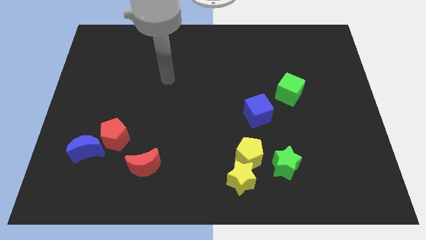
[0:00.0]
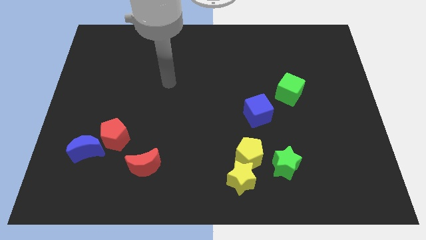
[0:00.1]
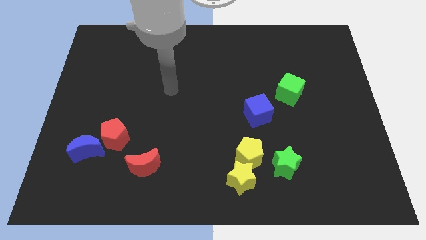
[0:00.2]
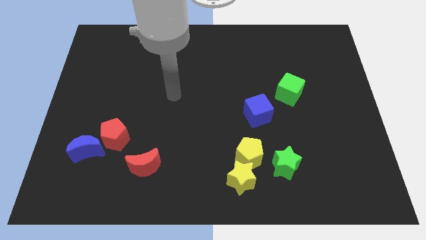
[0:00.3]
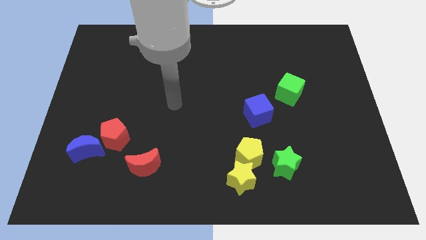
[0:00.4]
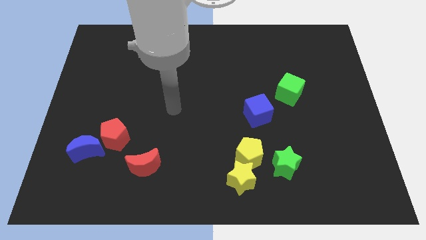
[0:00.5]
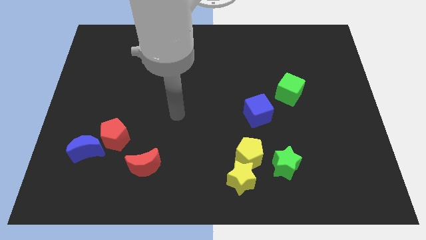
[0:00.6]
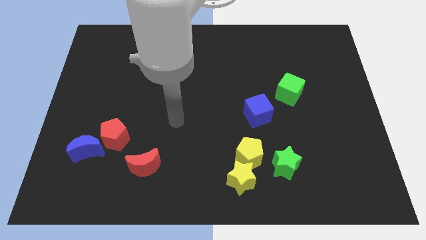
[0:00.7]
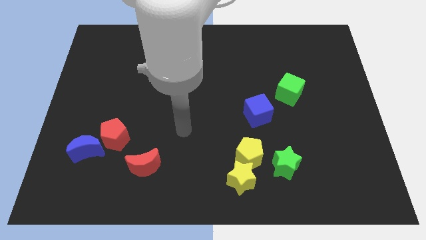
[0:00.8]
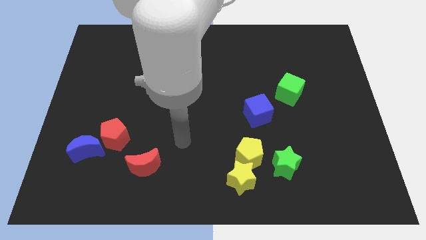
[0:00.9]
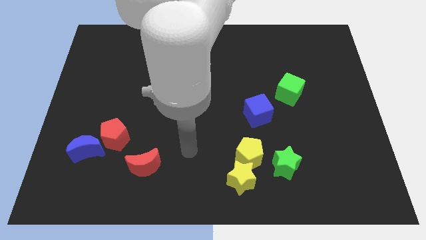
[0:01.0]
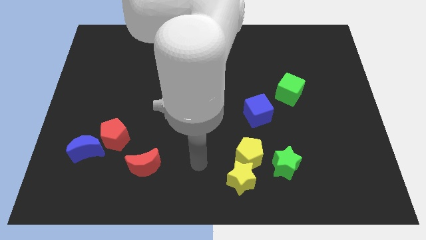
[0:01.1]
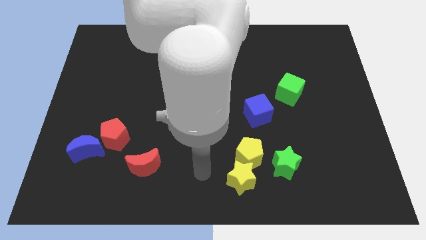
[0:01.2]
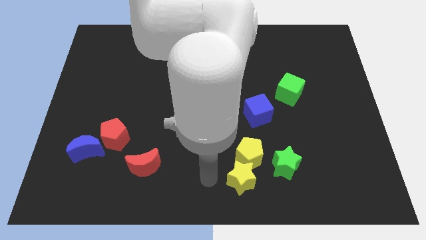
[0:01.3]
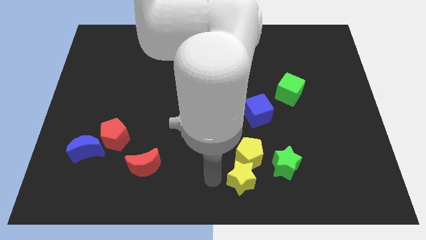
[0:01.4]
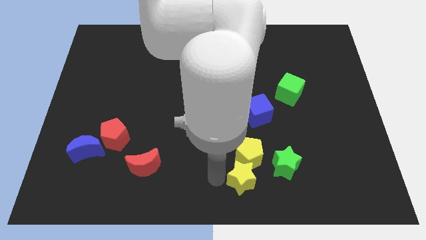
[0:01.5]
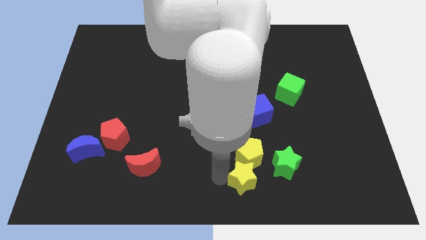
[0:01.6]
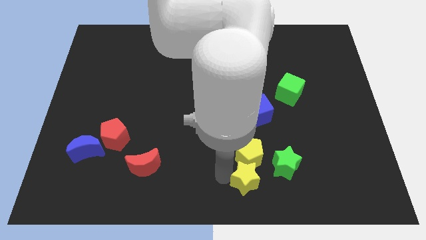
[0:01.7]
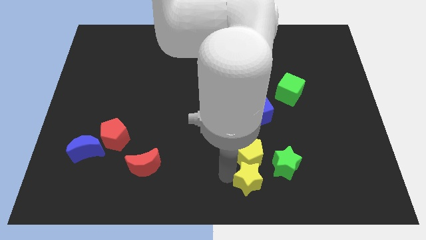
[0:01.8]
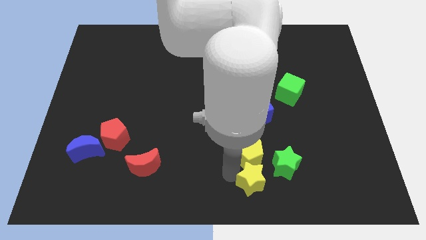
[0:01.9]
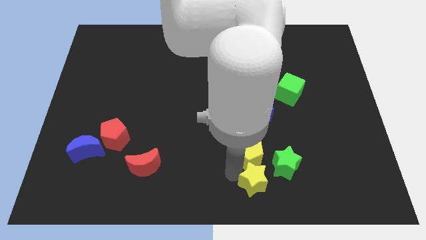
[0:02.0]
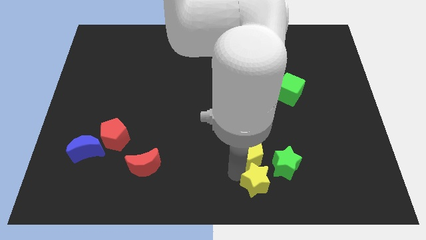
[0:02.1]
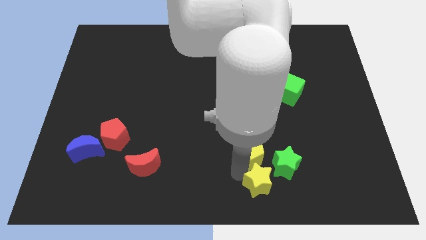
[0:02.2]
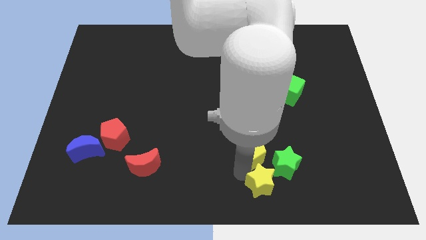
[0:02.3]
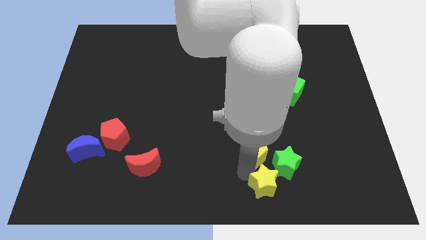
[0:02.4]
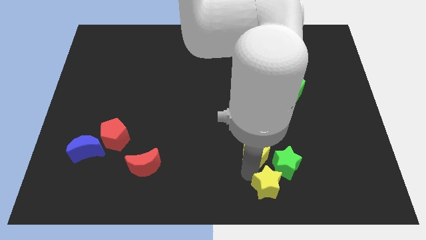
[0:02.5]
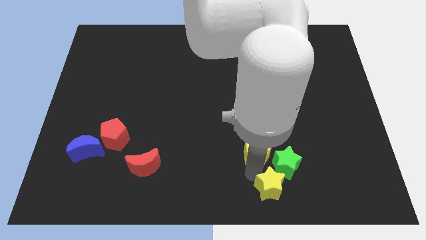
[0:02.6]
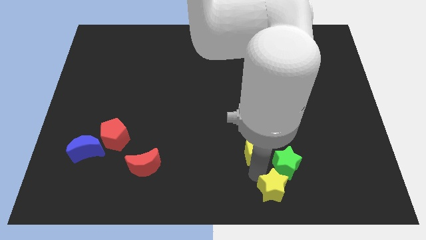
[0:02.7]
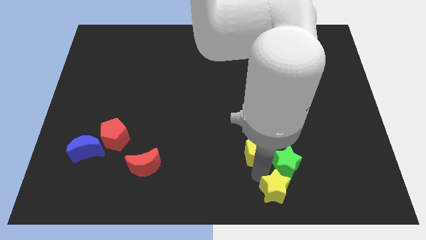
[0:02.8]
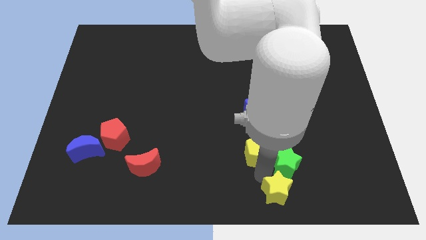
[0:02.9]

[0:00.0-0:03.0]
move the yellow star right somewhat

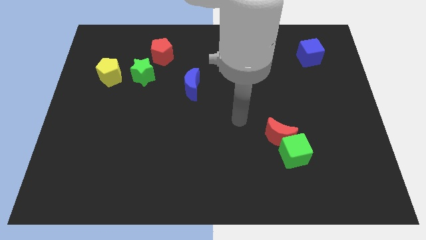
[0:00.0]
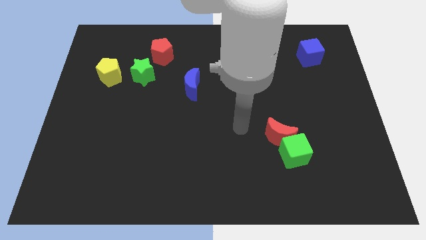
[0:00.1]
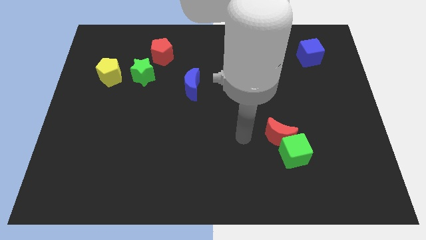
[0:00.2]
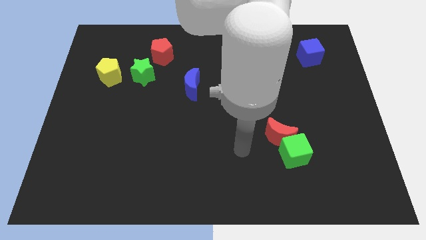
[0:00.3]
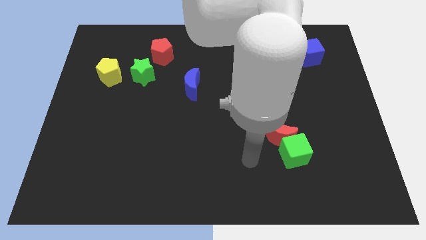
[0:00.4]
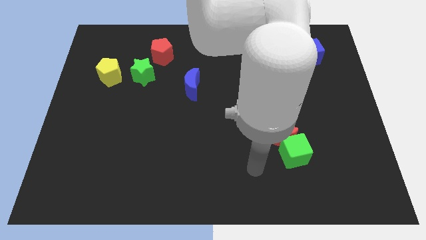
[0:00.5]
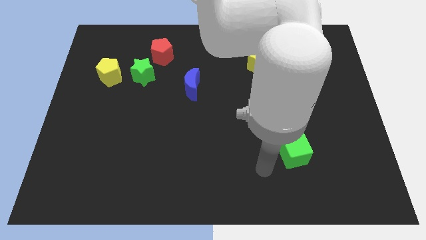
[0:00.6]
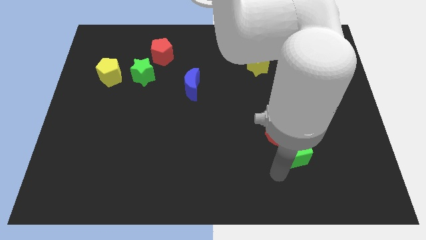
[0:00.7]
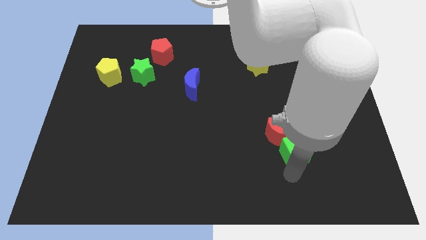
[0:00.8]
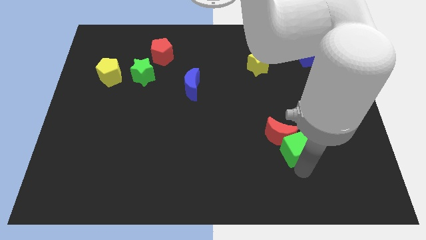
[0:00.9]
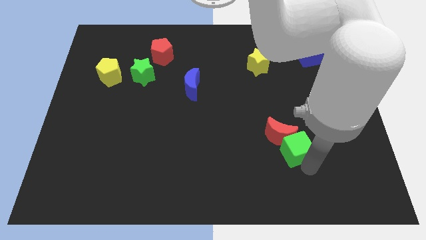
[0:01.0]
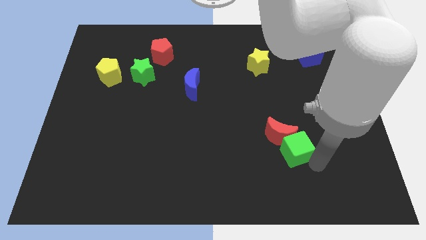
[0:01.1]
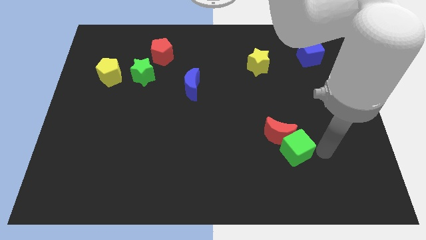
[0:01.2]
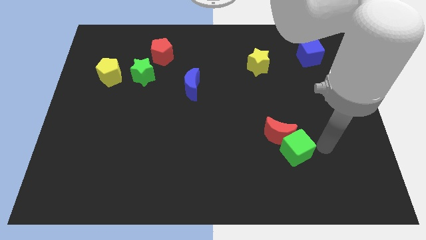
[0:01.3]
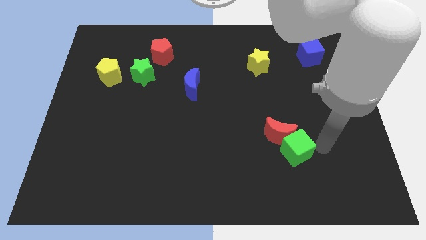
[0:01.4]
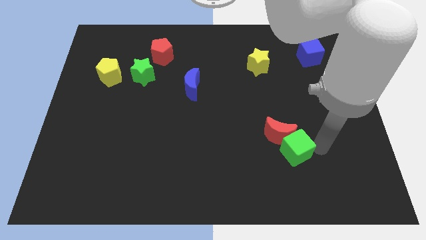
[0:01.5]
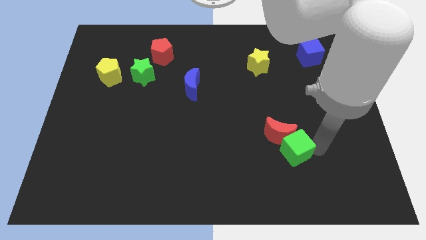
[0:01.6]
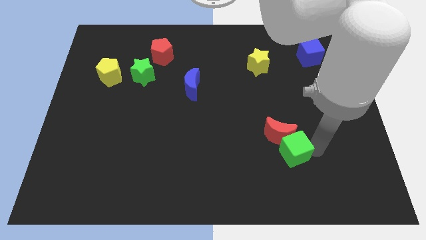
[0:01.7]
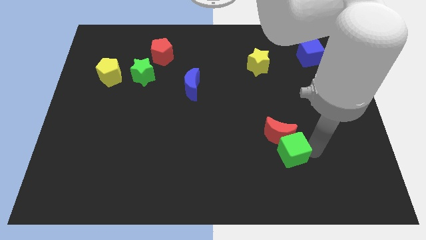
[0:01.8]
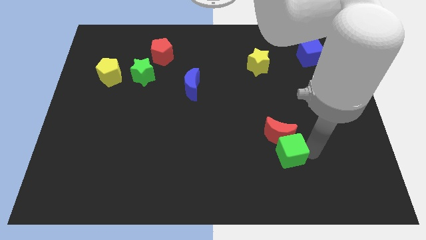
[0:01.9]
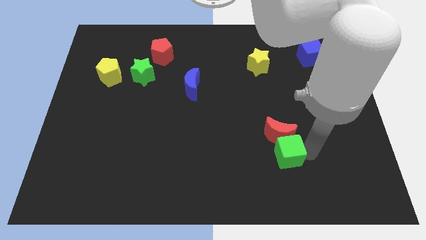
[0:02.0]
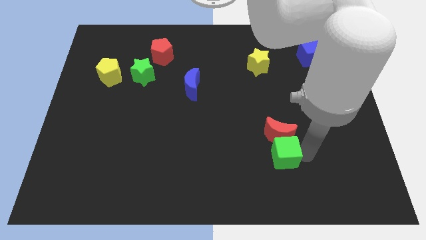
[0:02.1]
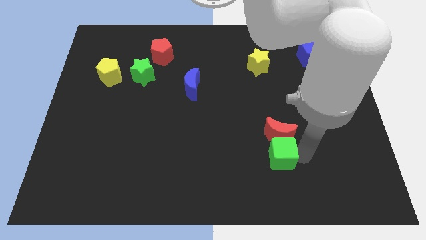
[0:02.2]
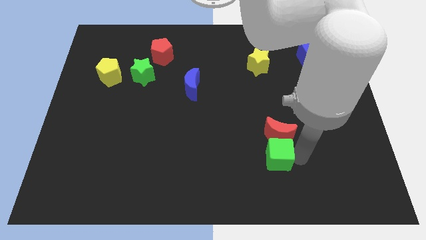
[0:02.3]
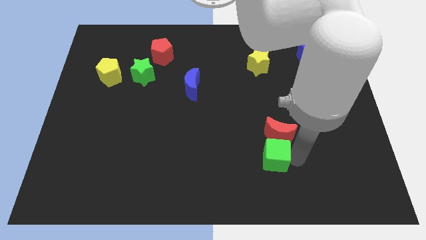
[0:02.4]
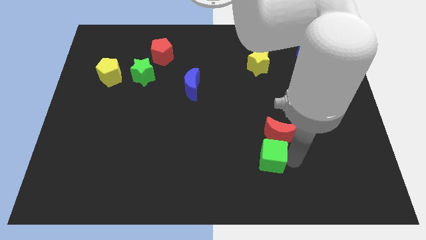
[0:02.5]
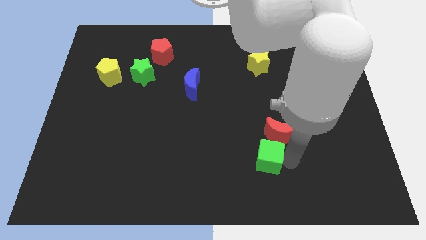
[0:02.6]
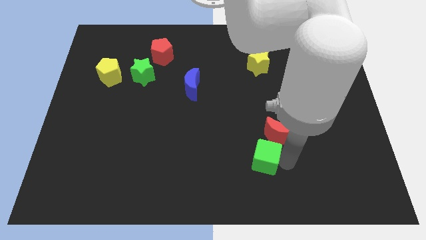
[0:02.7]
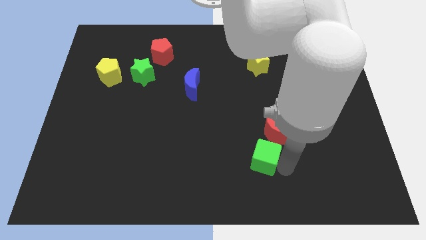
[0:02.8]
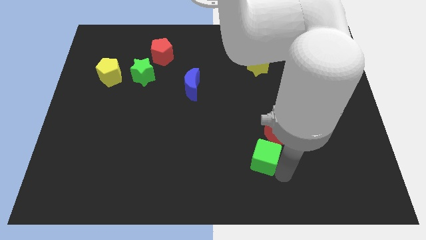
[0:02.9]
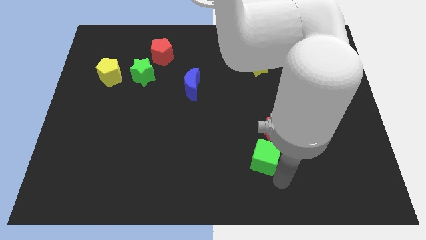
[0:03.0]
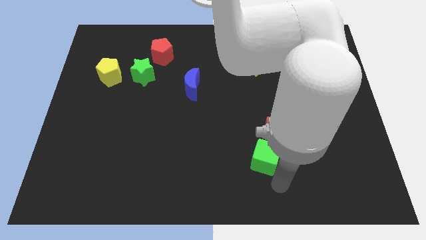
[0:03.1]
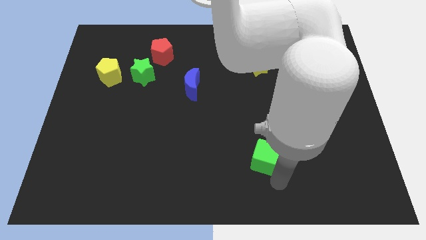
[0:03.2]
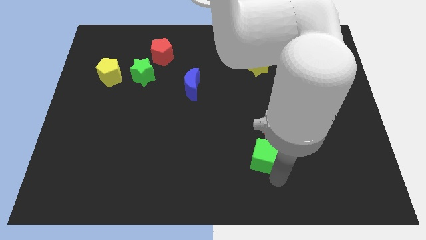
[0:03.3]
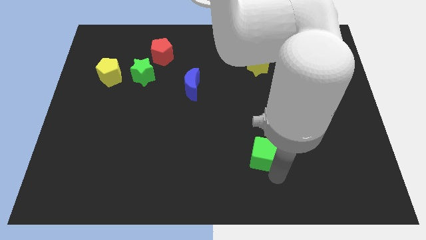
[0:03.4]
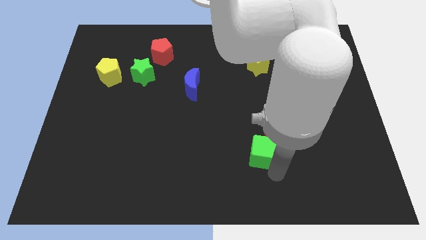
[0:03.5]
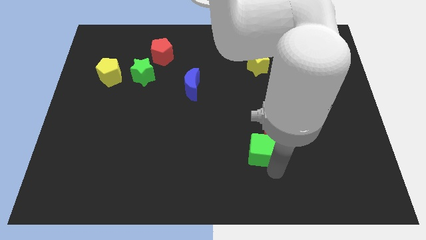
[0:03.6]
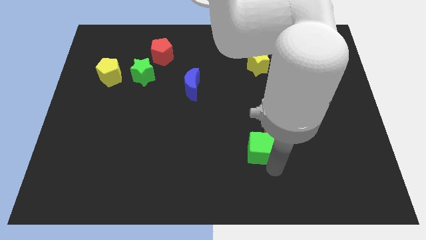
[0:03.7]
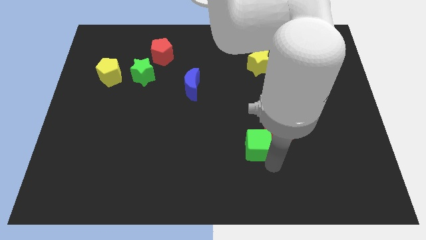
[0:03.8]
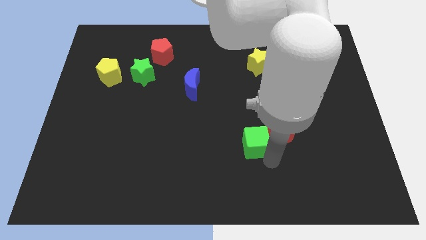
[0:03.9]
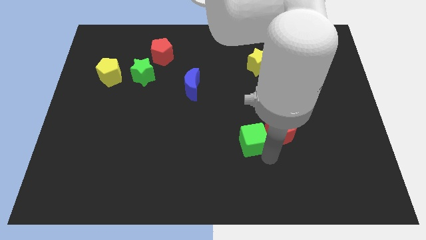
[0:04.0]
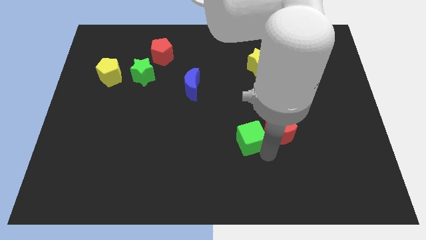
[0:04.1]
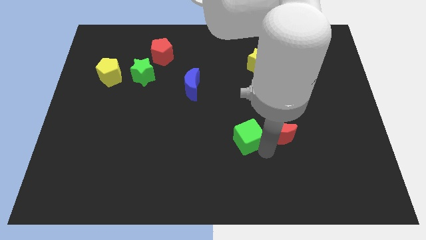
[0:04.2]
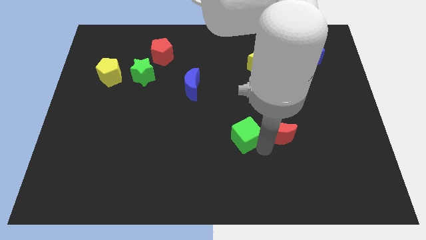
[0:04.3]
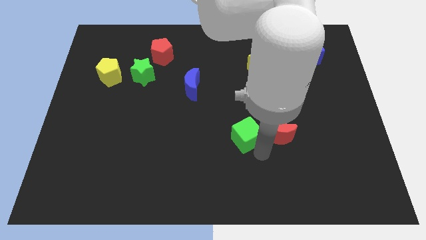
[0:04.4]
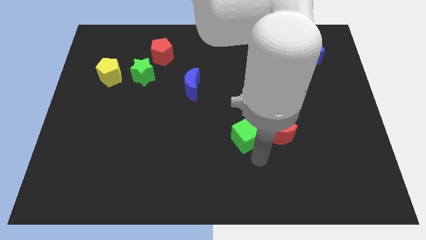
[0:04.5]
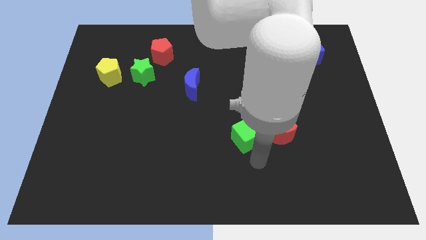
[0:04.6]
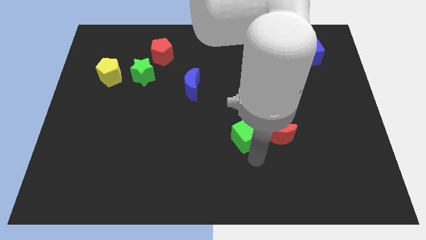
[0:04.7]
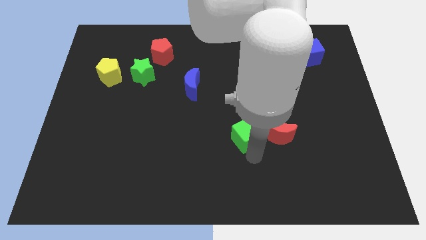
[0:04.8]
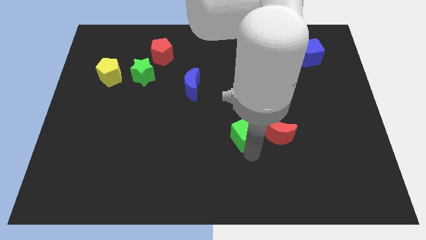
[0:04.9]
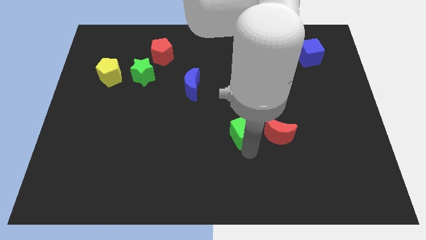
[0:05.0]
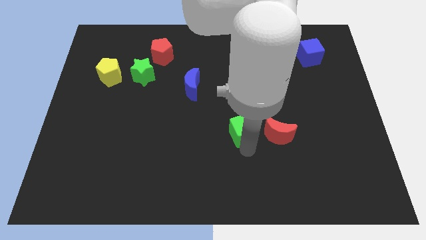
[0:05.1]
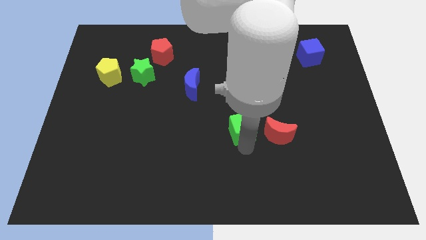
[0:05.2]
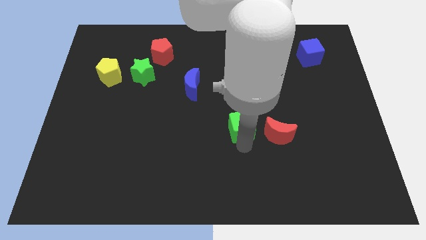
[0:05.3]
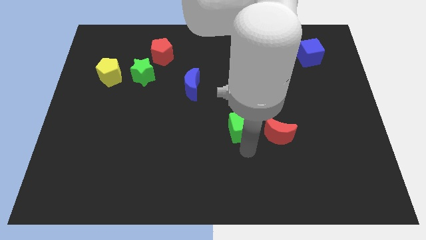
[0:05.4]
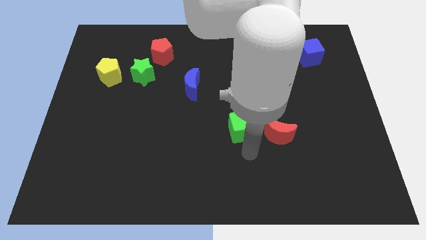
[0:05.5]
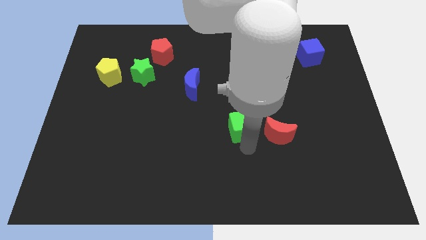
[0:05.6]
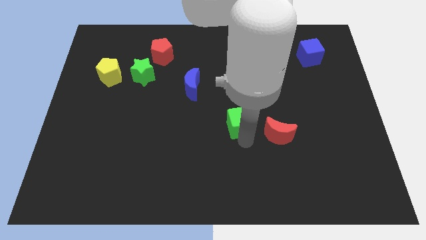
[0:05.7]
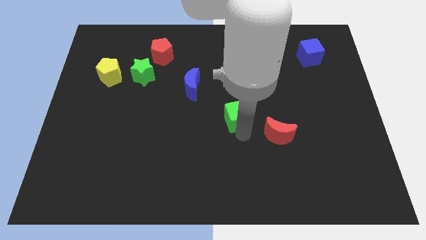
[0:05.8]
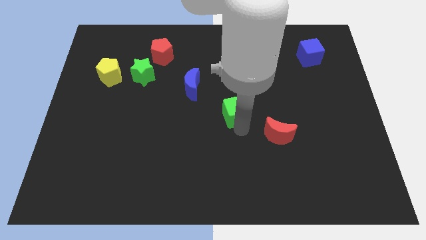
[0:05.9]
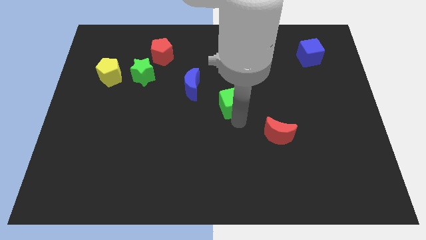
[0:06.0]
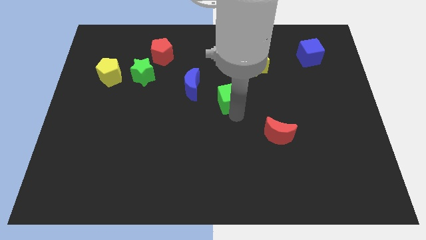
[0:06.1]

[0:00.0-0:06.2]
slide the green cube diagonally upwards and to the left
